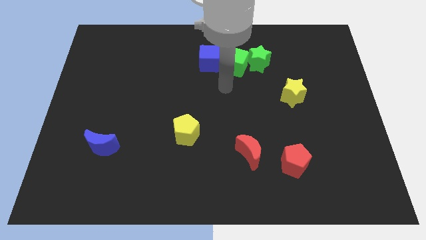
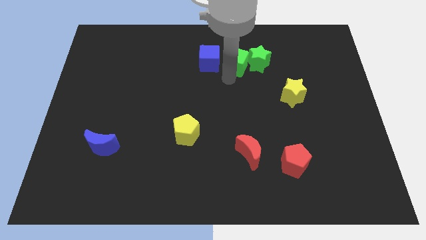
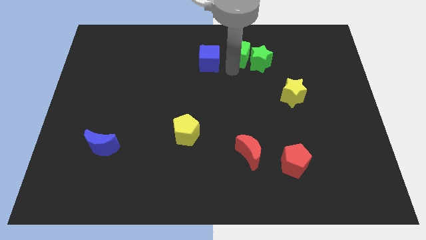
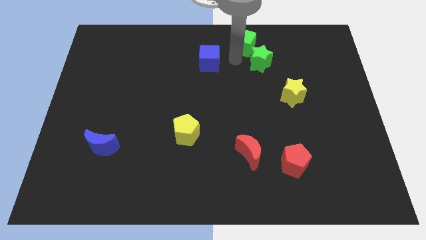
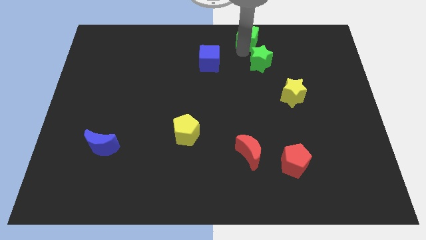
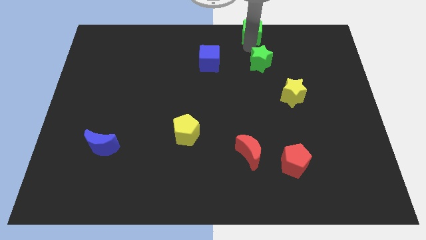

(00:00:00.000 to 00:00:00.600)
pull the green star apart from the green cube

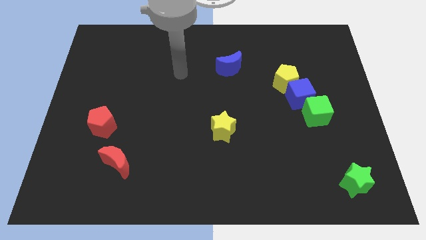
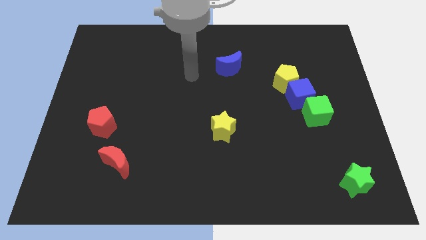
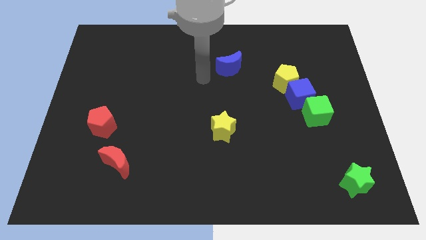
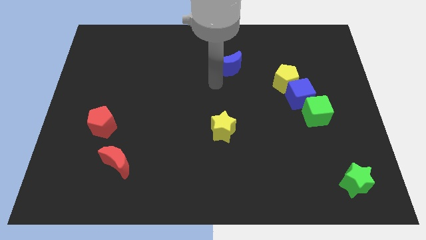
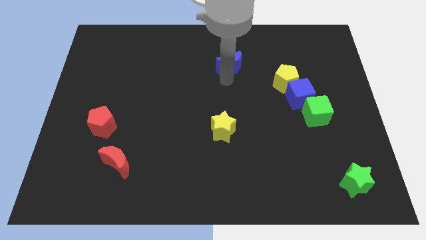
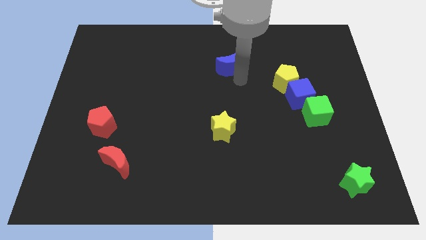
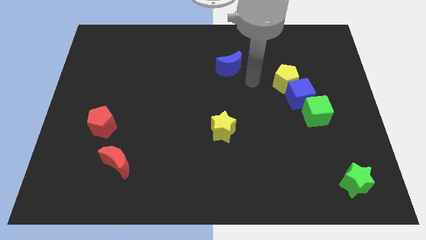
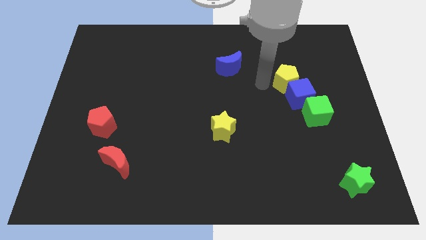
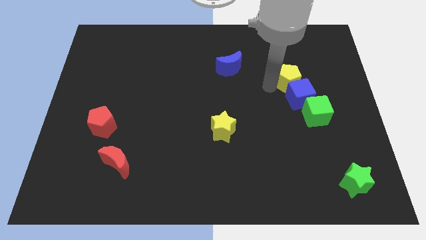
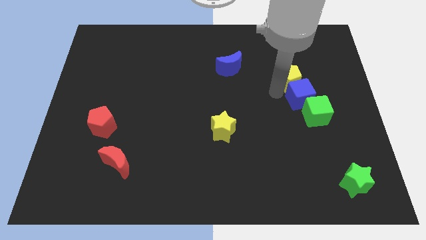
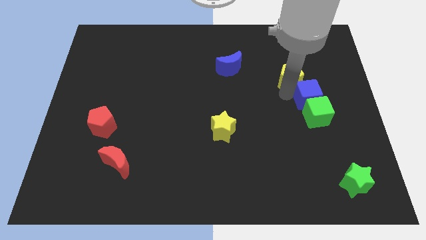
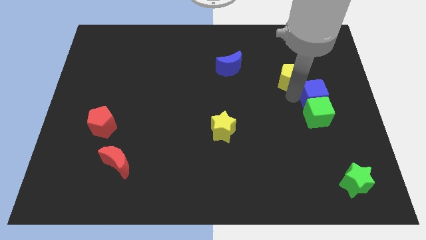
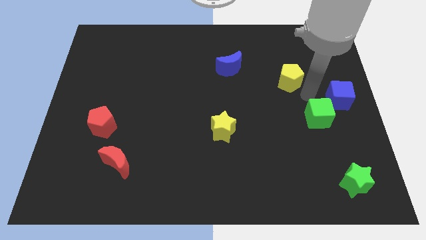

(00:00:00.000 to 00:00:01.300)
move the yellow pentagon away from the blue cube

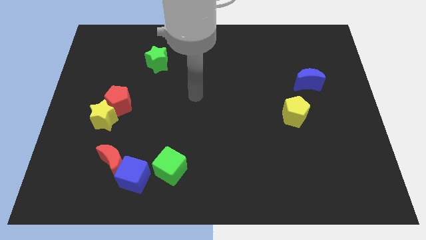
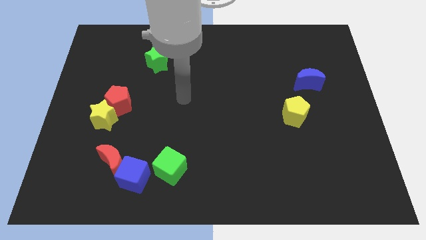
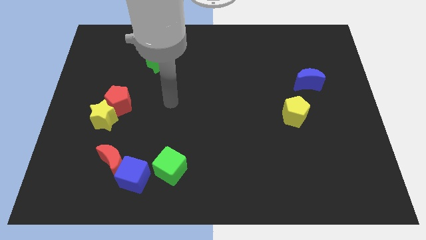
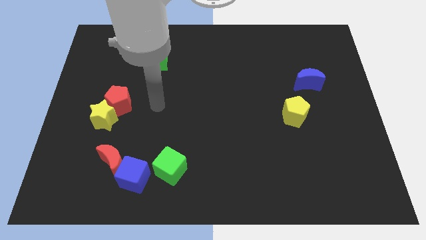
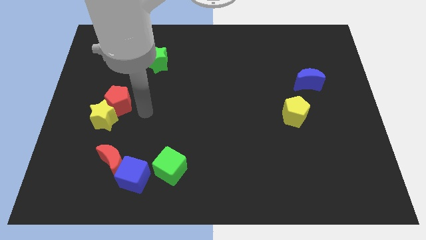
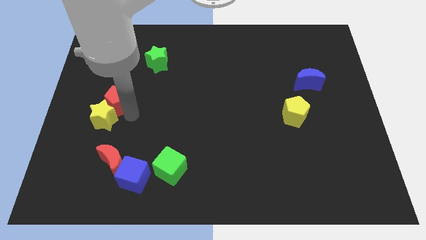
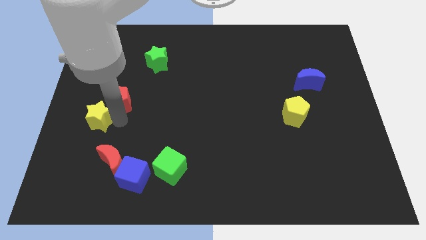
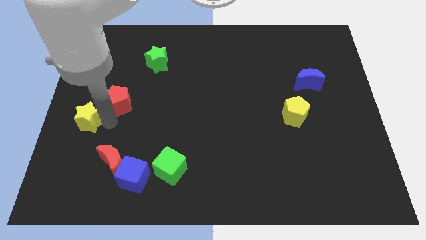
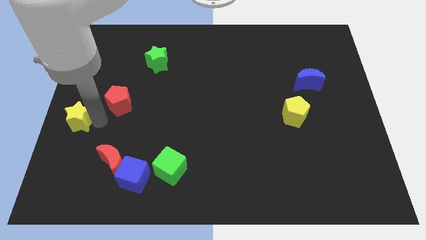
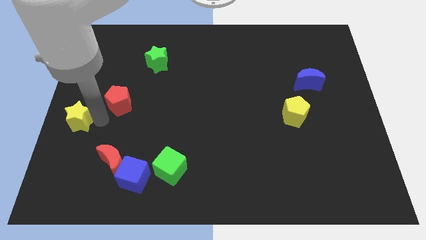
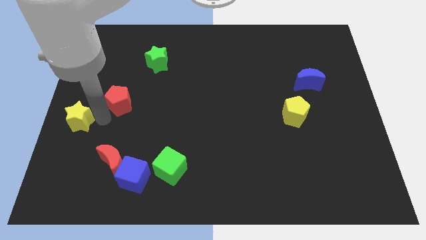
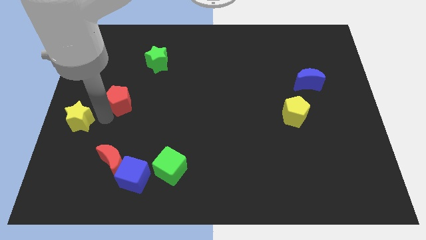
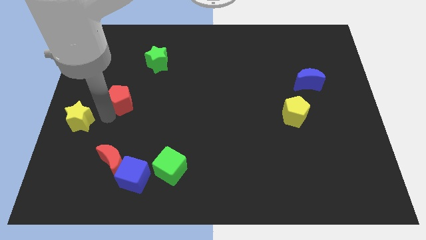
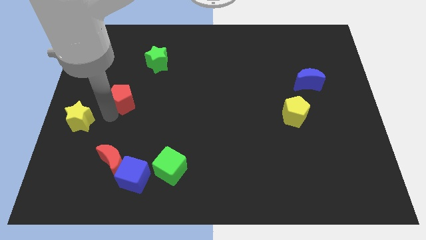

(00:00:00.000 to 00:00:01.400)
separate the red pentagon from the yellow star

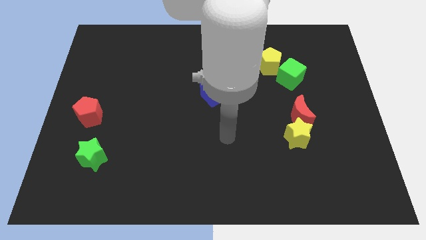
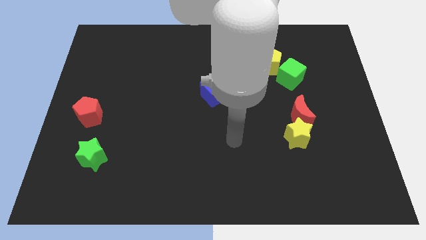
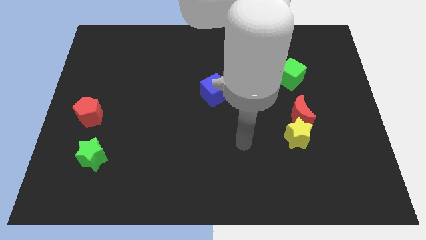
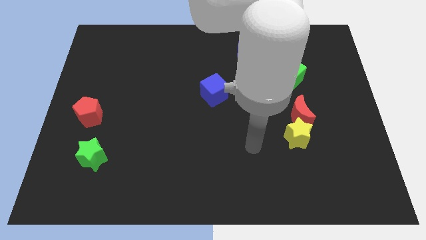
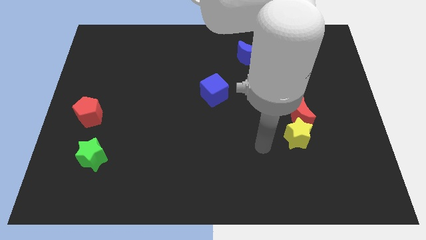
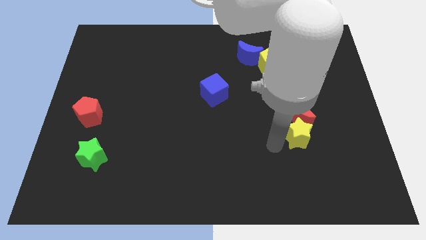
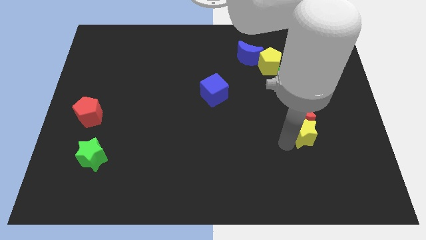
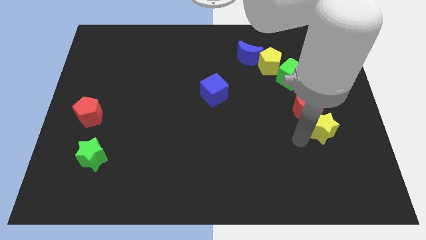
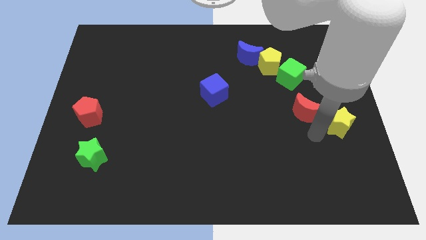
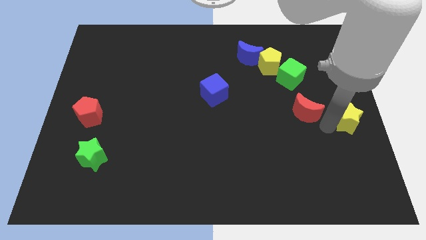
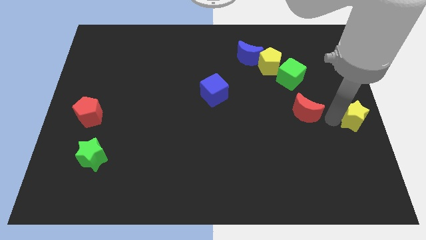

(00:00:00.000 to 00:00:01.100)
move the red moon away from the yellow star

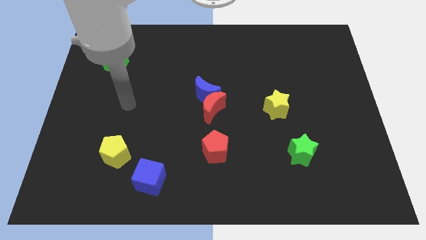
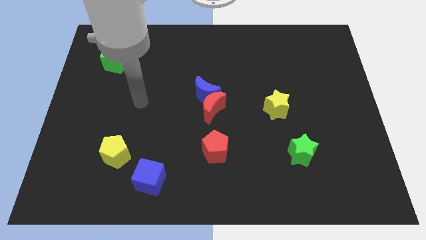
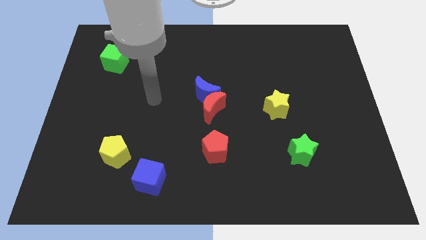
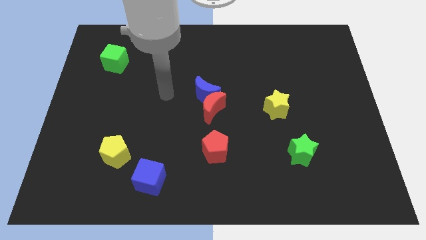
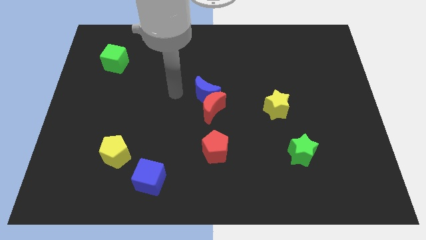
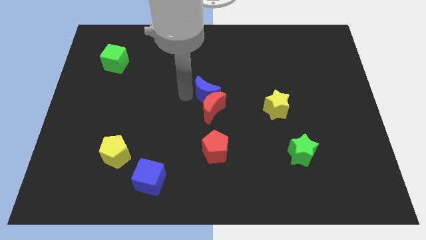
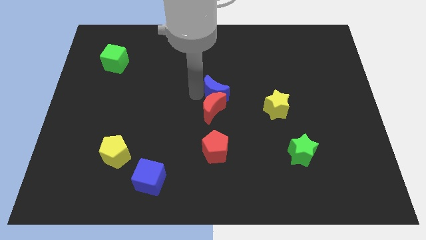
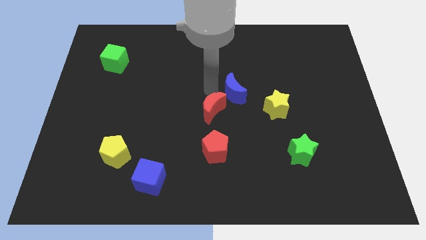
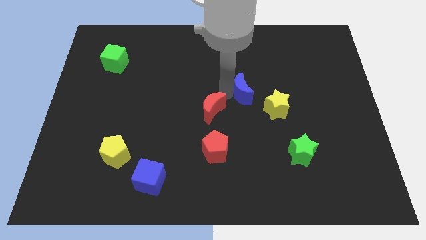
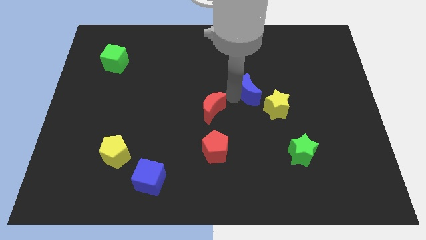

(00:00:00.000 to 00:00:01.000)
separate the red moon from the blue moon

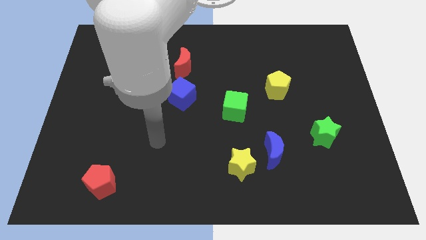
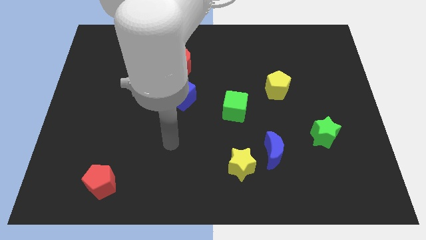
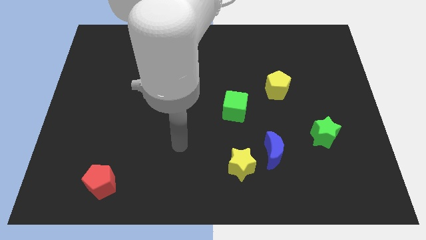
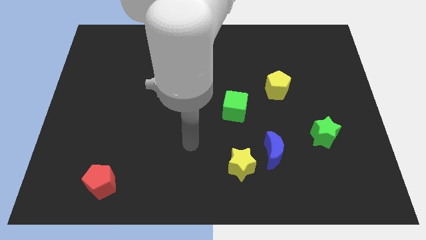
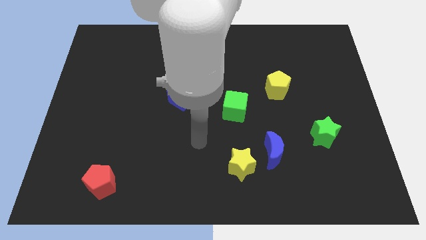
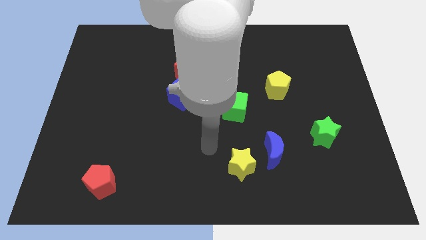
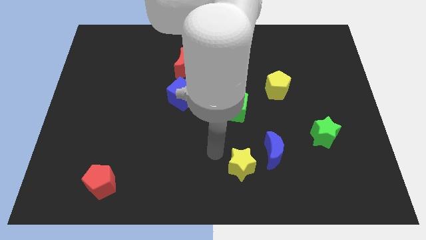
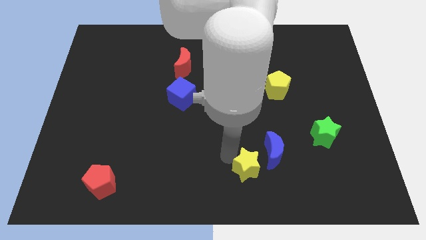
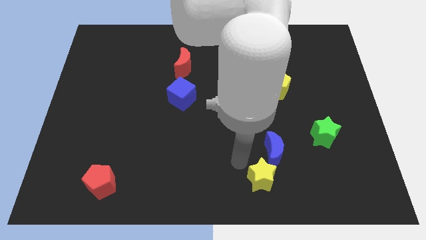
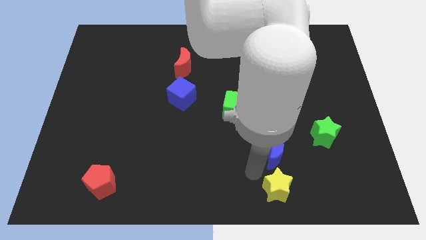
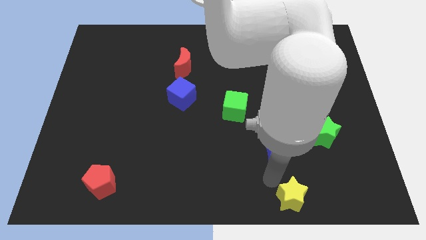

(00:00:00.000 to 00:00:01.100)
move the blue moon away from the yellow star

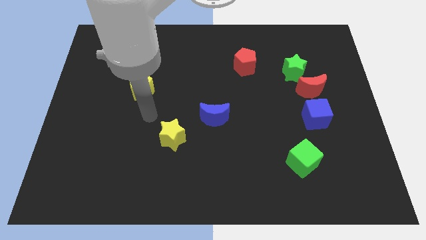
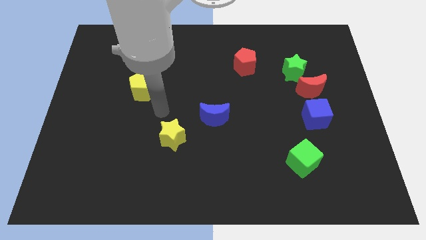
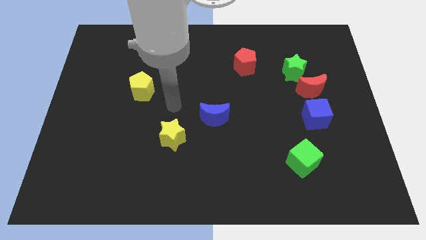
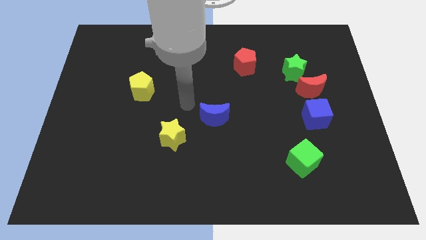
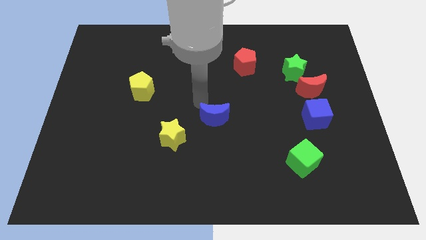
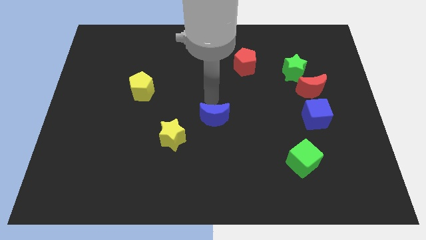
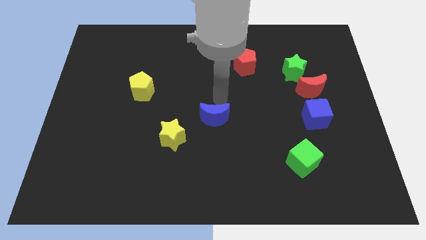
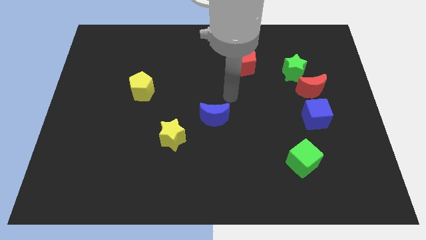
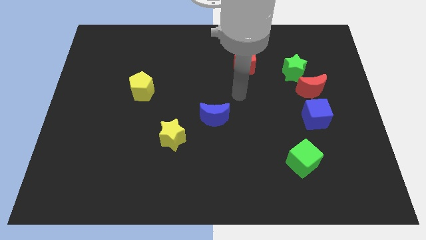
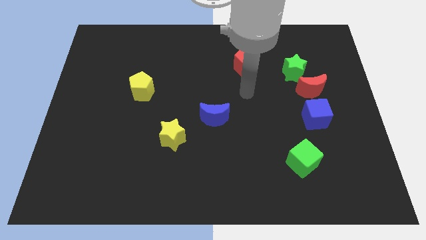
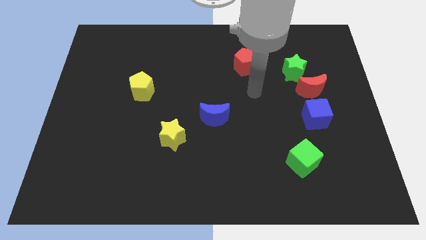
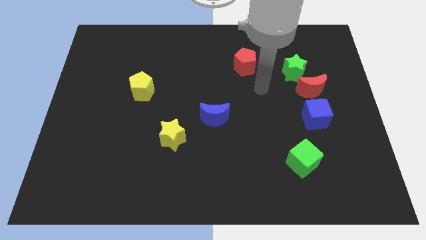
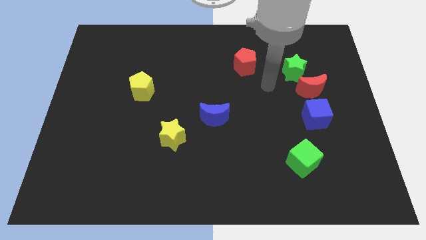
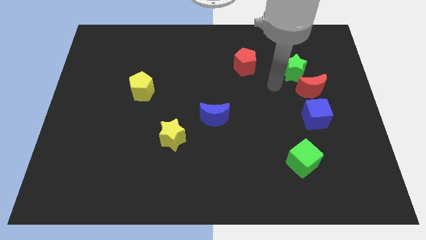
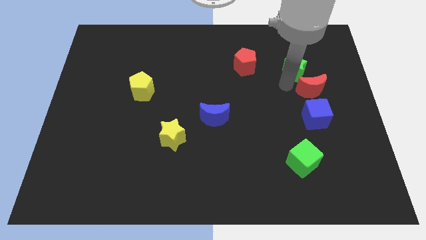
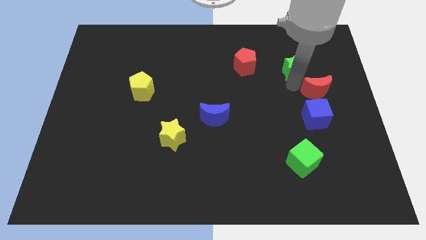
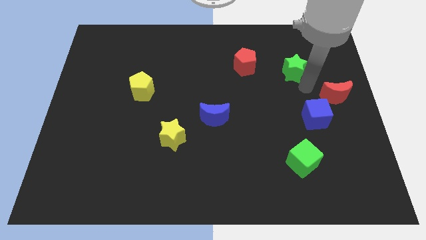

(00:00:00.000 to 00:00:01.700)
move the green star away from the red moon

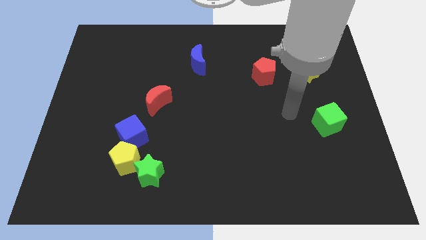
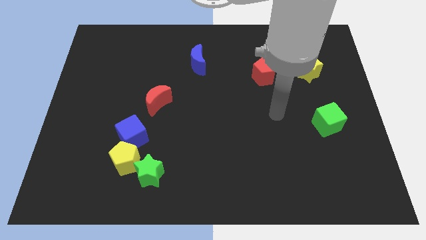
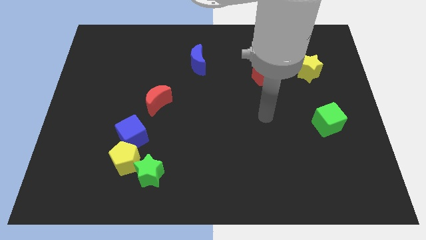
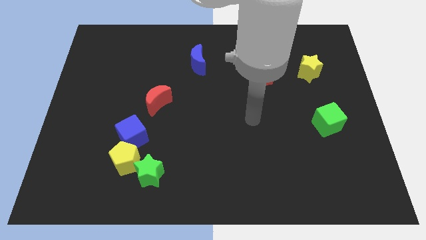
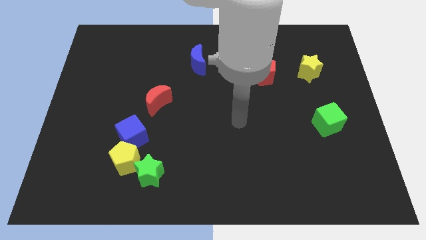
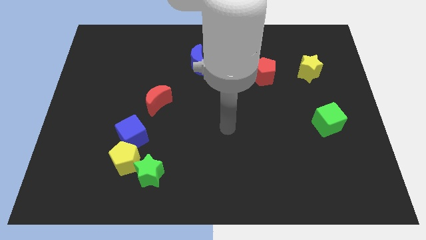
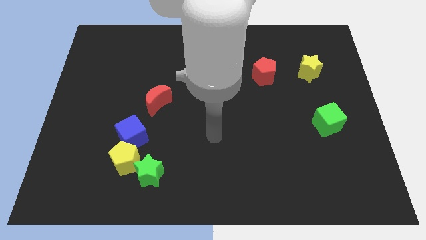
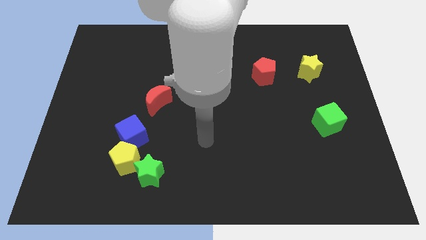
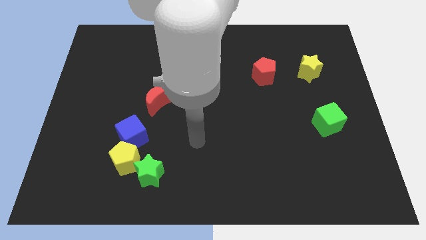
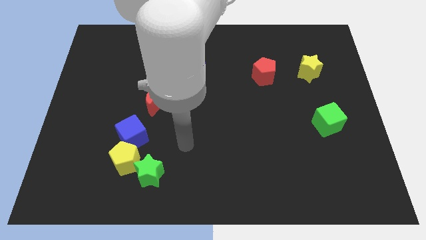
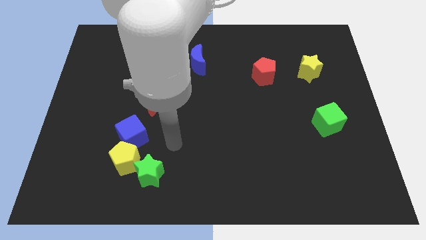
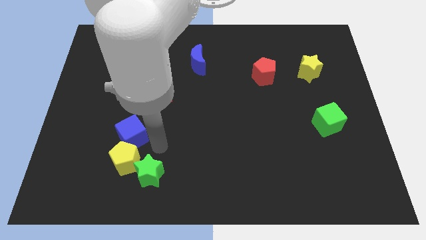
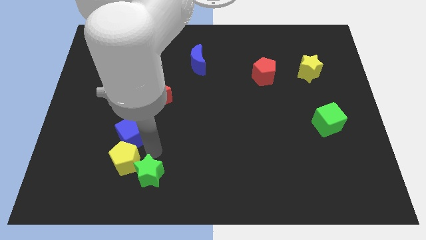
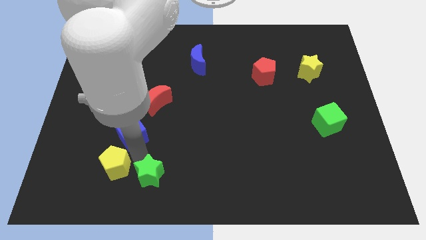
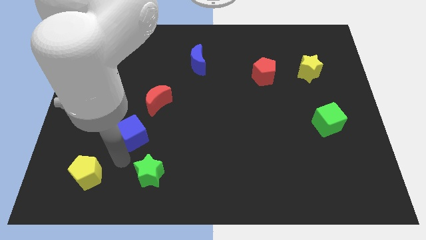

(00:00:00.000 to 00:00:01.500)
separate the blue cube from the yellow pentagon
